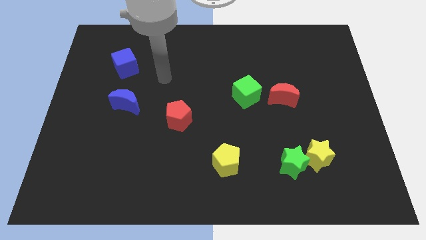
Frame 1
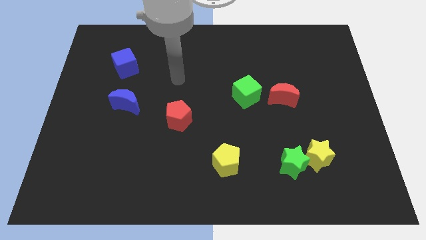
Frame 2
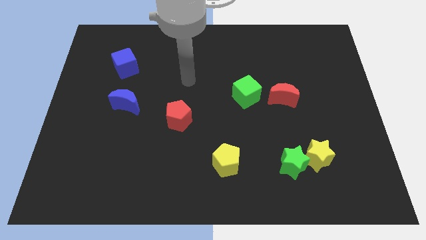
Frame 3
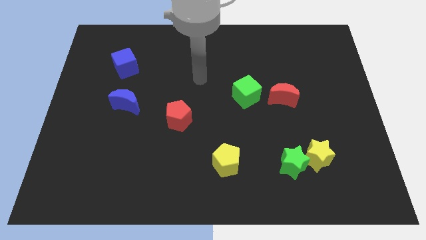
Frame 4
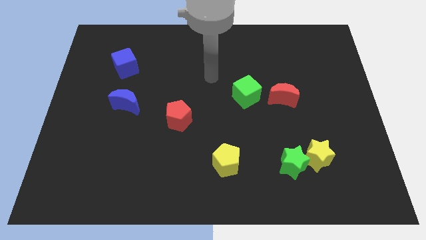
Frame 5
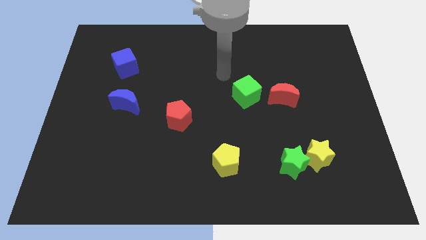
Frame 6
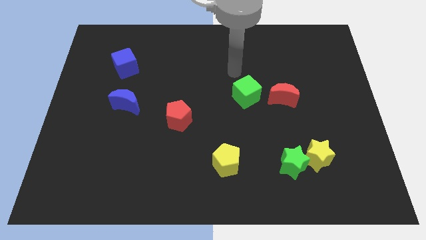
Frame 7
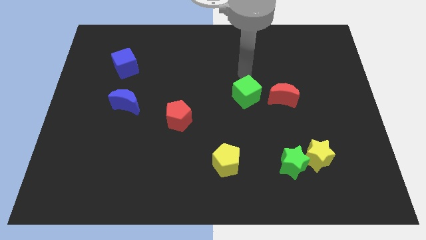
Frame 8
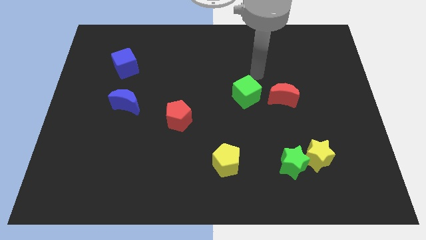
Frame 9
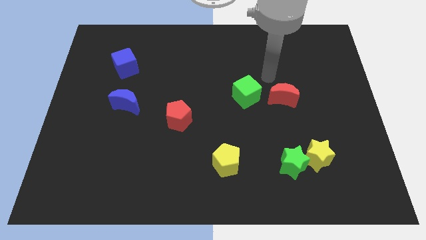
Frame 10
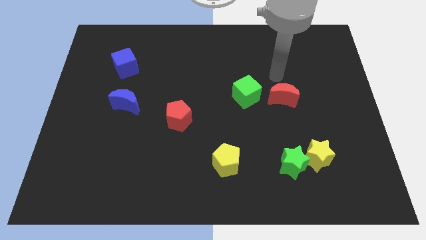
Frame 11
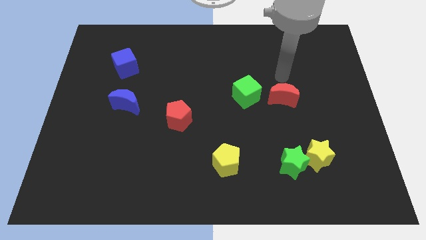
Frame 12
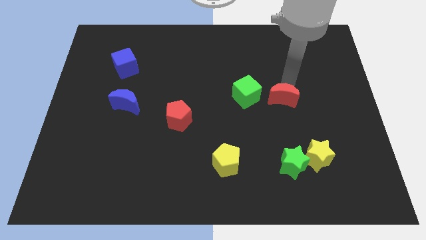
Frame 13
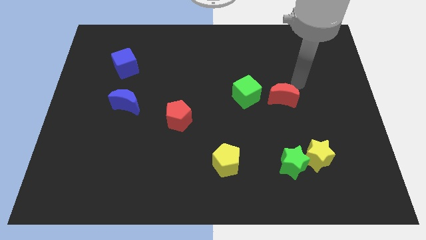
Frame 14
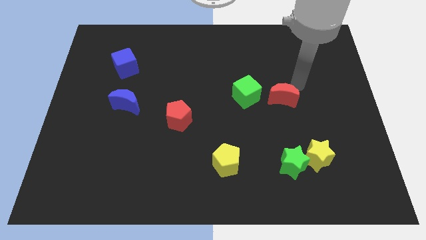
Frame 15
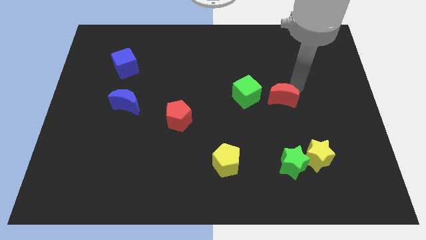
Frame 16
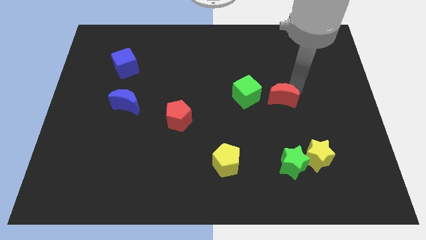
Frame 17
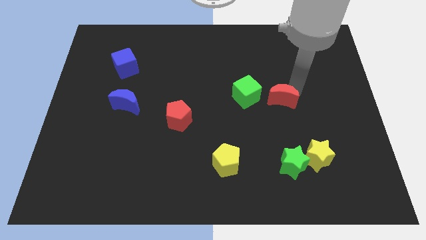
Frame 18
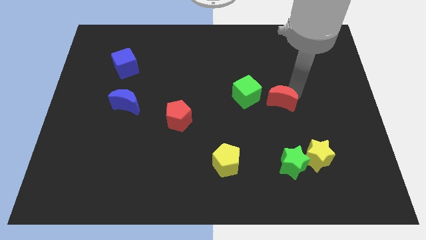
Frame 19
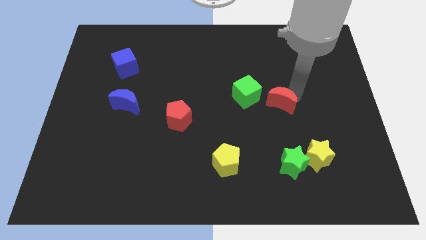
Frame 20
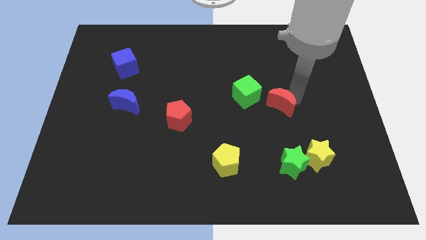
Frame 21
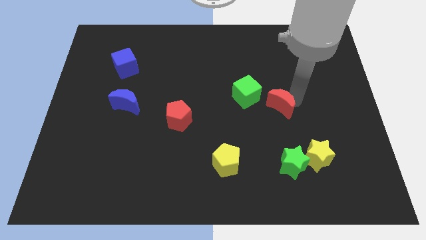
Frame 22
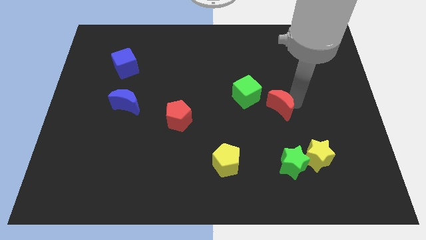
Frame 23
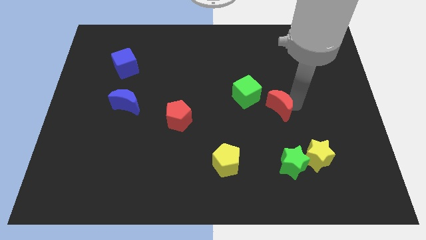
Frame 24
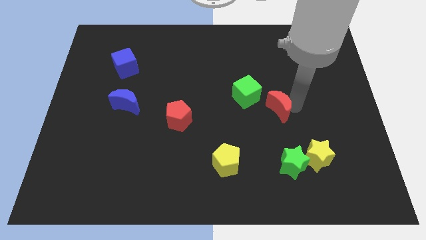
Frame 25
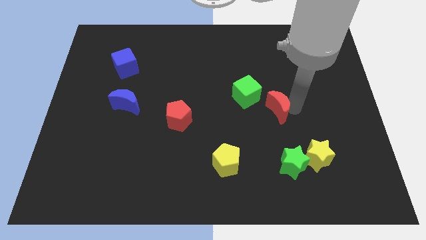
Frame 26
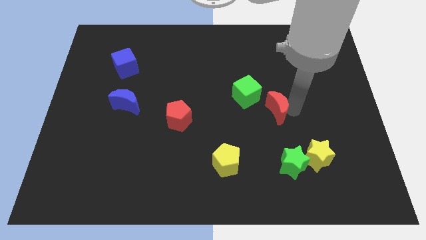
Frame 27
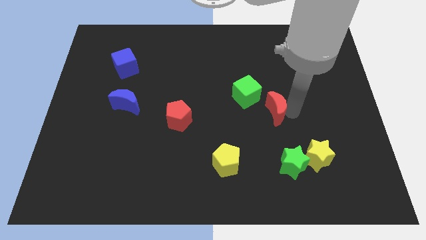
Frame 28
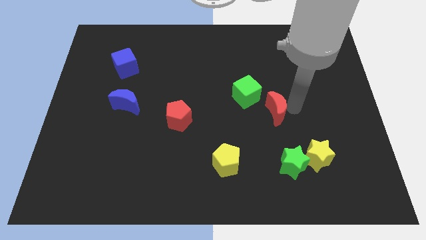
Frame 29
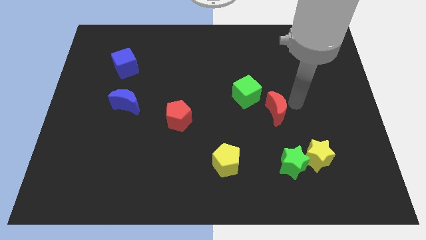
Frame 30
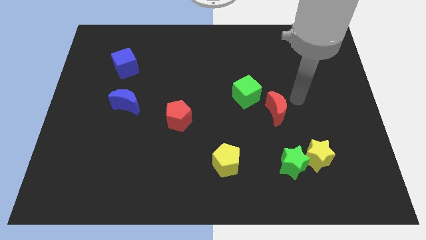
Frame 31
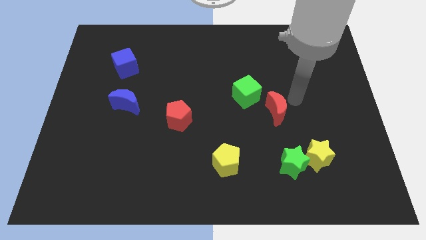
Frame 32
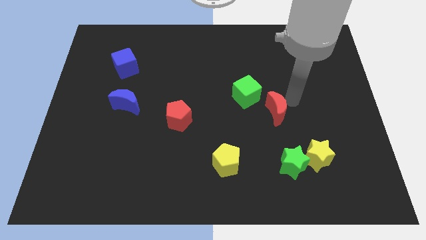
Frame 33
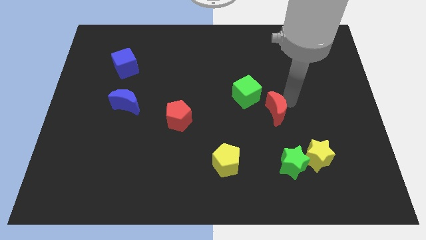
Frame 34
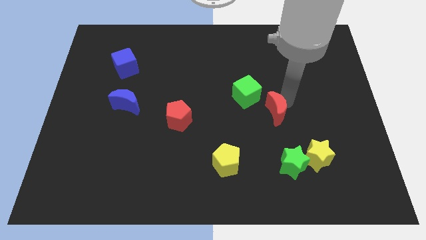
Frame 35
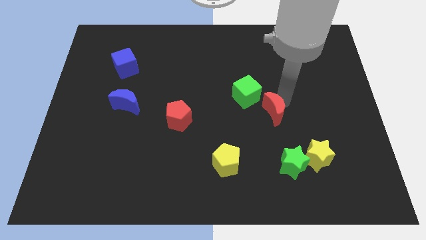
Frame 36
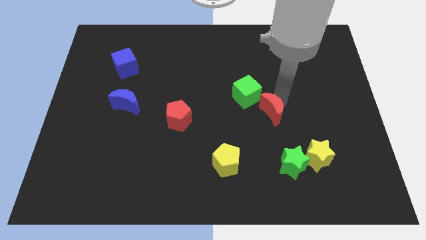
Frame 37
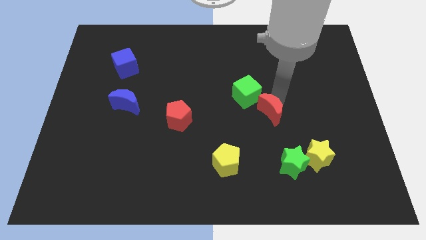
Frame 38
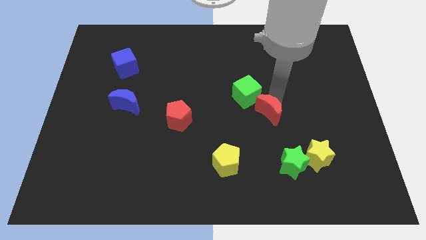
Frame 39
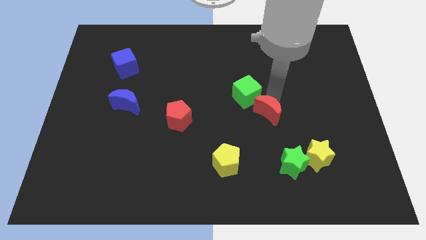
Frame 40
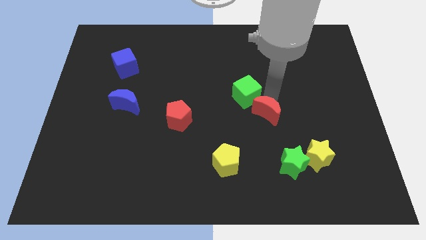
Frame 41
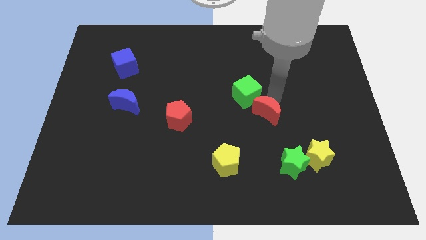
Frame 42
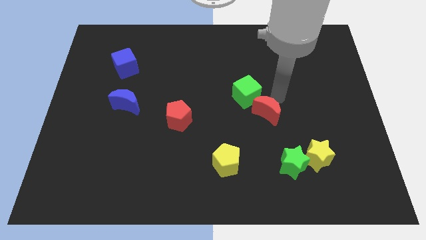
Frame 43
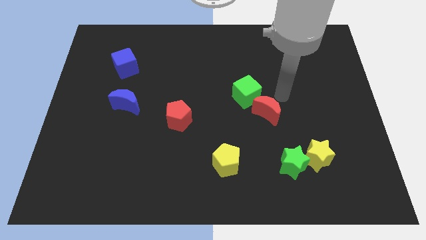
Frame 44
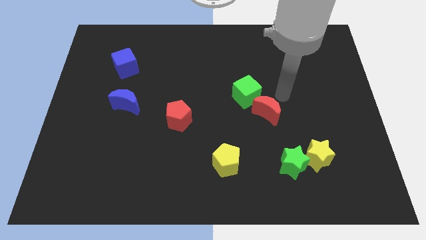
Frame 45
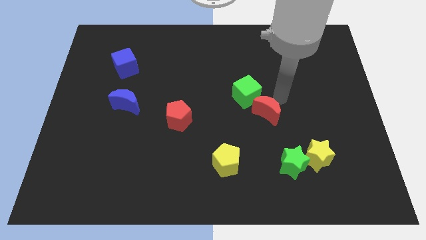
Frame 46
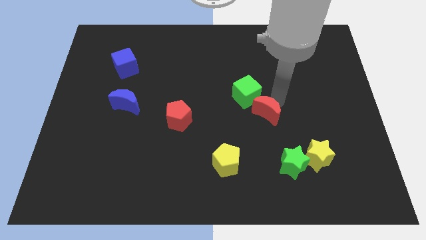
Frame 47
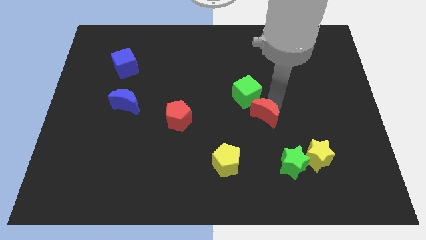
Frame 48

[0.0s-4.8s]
move the red moon somewhat down and then to the left

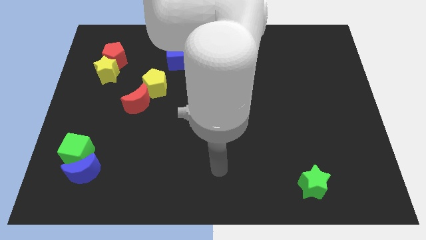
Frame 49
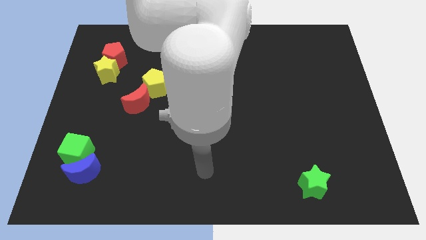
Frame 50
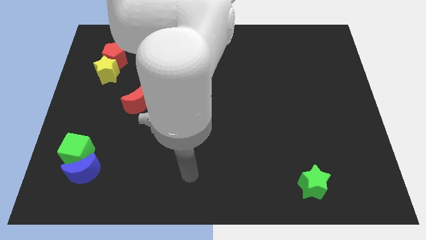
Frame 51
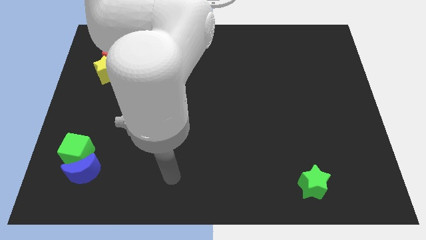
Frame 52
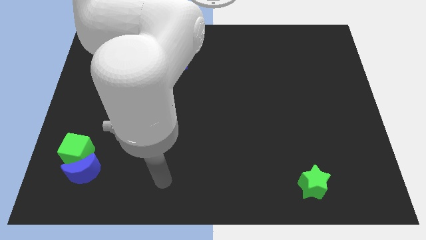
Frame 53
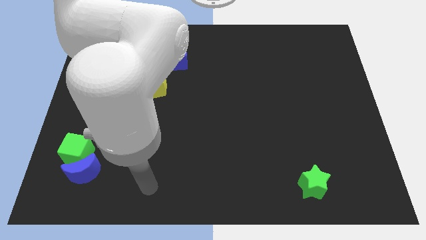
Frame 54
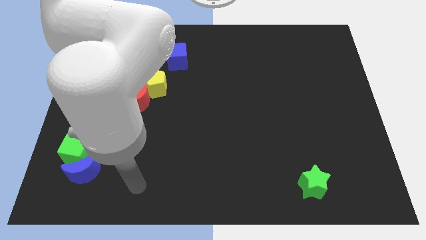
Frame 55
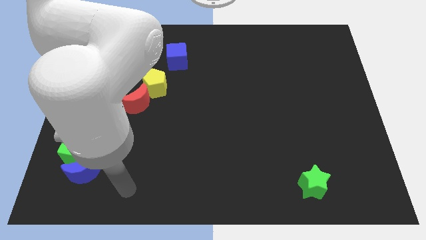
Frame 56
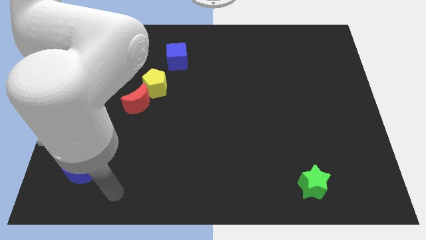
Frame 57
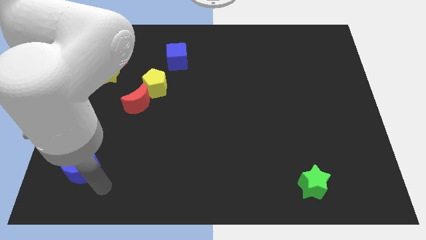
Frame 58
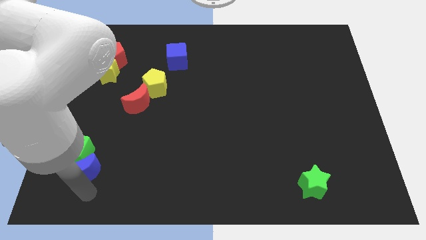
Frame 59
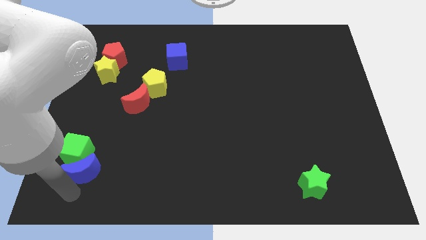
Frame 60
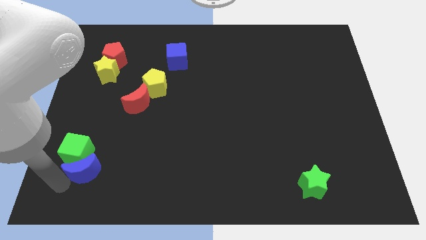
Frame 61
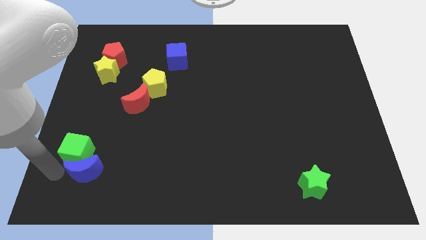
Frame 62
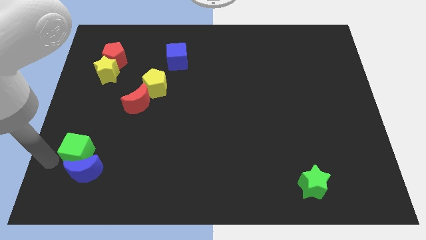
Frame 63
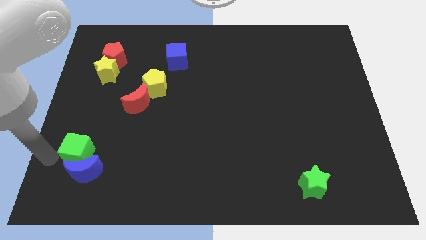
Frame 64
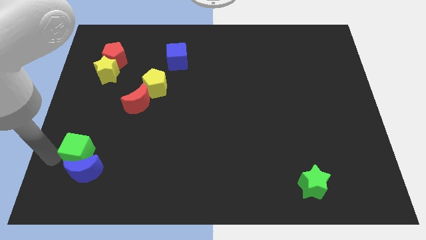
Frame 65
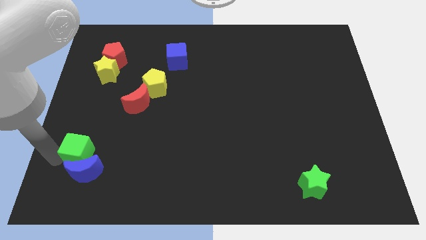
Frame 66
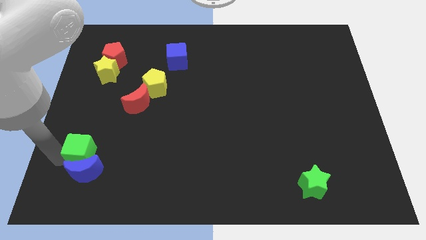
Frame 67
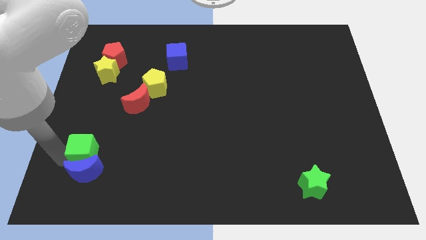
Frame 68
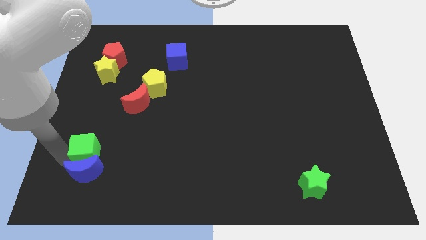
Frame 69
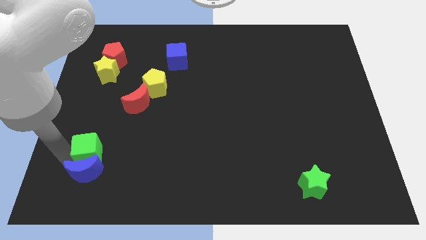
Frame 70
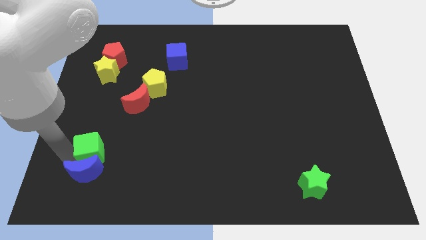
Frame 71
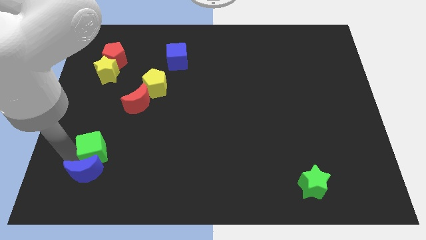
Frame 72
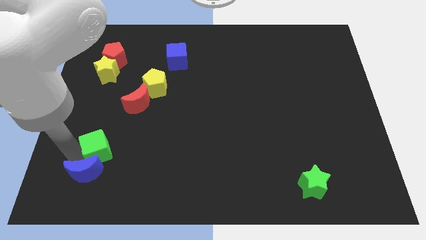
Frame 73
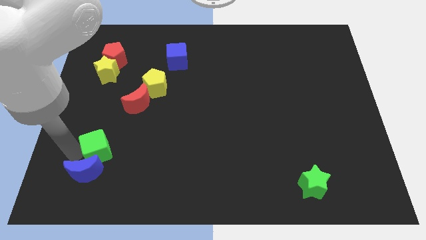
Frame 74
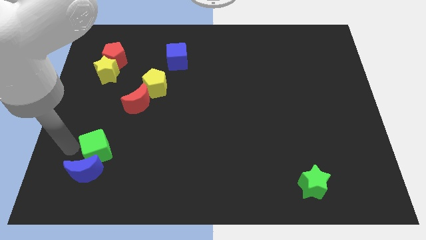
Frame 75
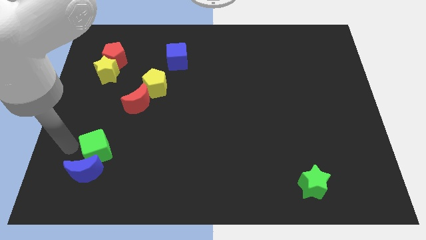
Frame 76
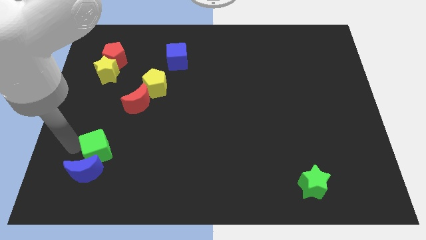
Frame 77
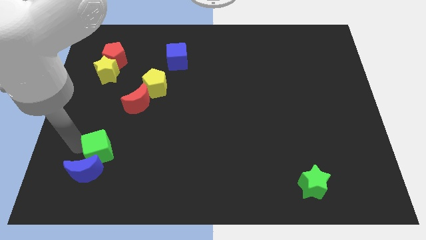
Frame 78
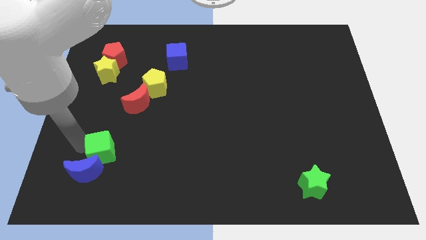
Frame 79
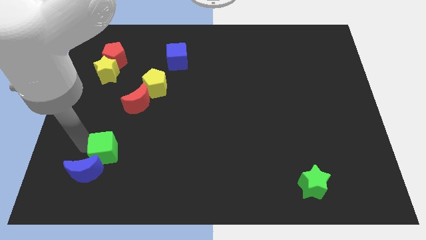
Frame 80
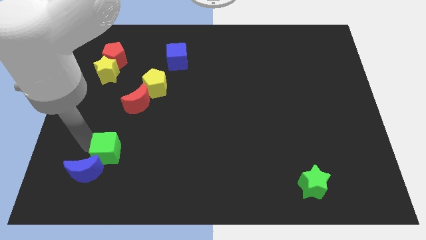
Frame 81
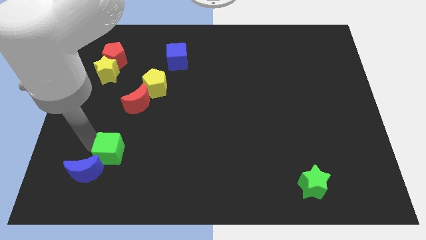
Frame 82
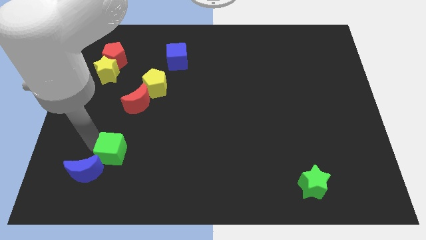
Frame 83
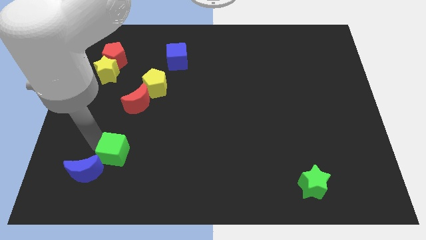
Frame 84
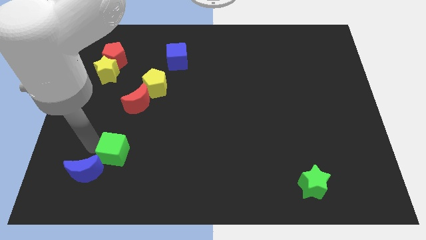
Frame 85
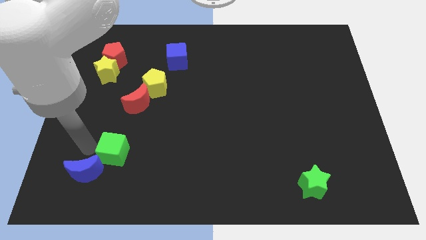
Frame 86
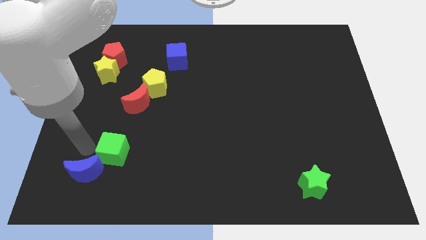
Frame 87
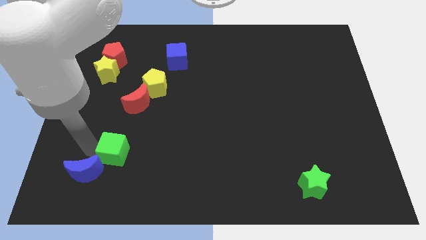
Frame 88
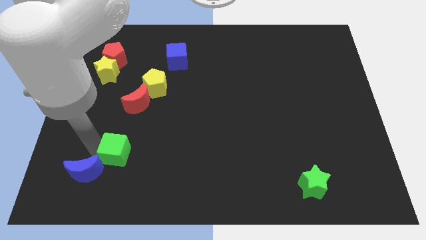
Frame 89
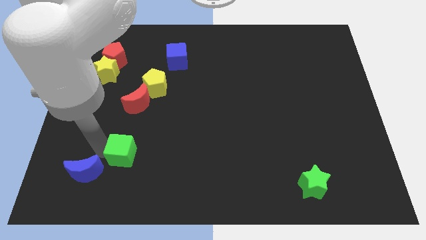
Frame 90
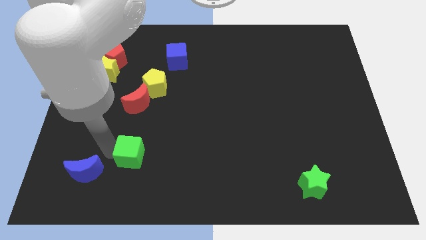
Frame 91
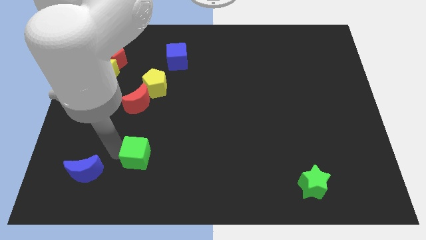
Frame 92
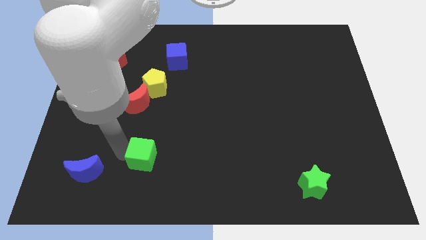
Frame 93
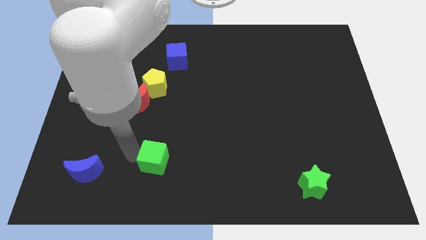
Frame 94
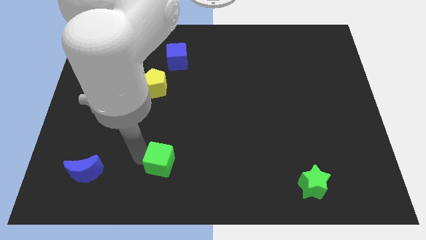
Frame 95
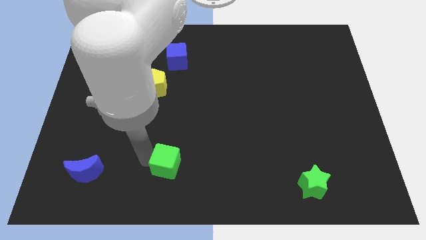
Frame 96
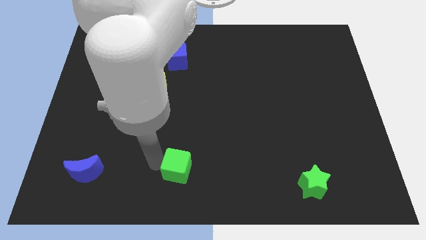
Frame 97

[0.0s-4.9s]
push the green cube right
